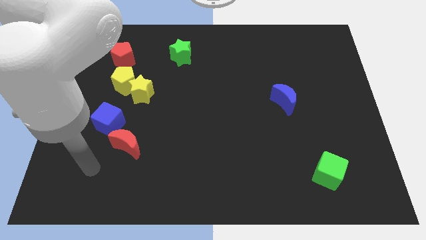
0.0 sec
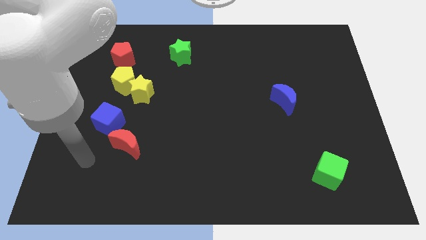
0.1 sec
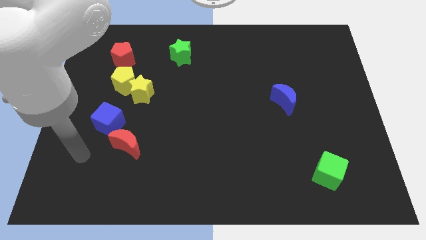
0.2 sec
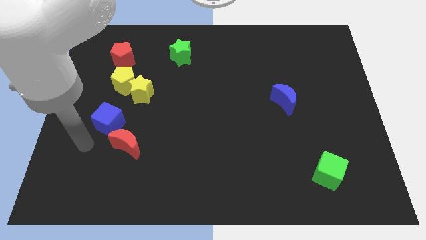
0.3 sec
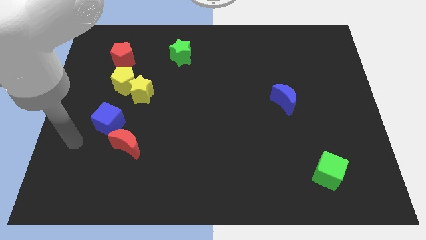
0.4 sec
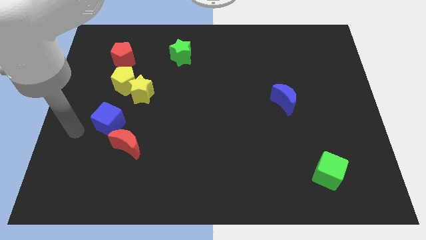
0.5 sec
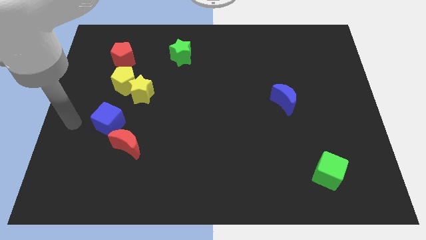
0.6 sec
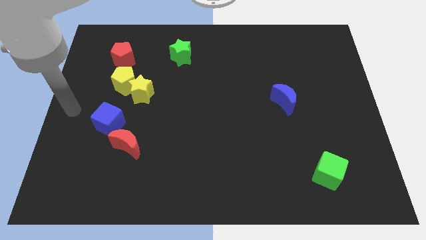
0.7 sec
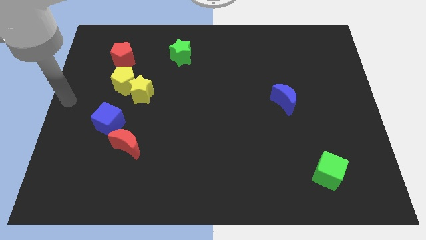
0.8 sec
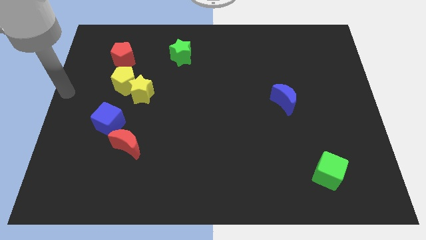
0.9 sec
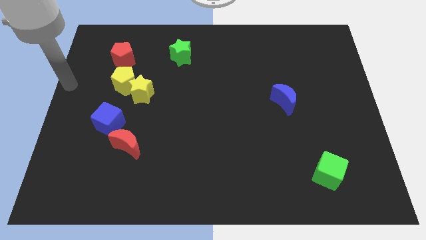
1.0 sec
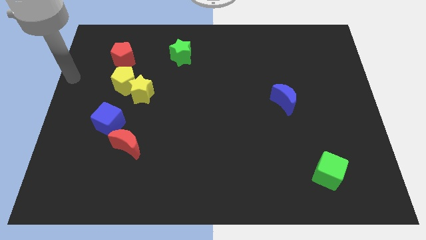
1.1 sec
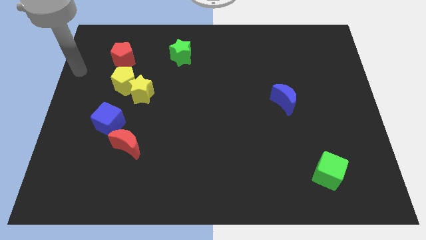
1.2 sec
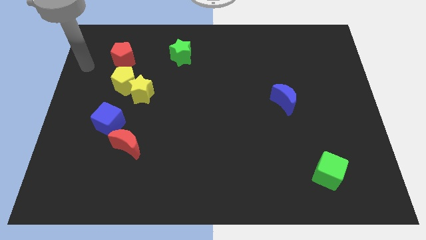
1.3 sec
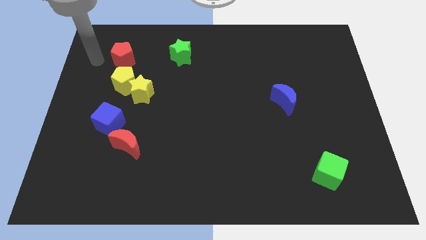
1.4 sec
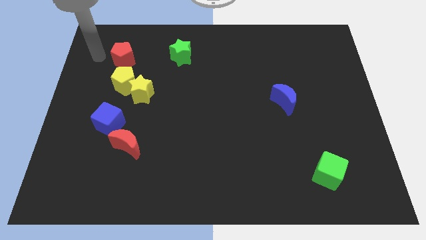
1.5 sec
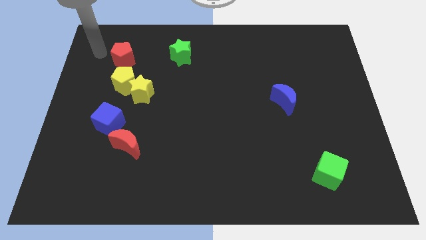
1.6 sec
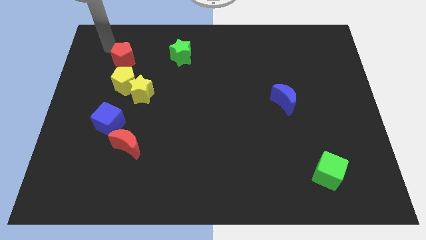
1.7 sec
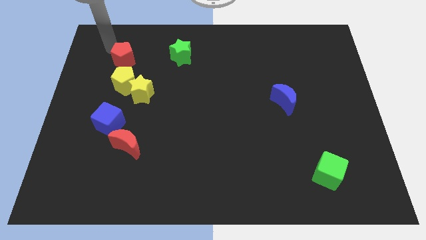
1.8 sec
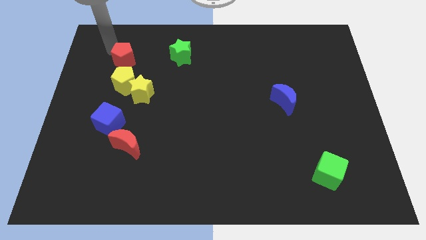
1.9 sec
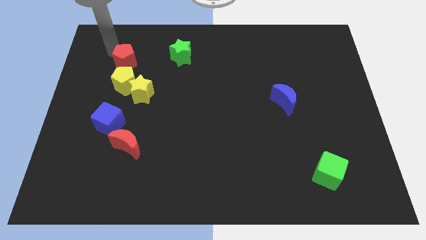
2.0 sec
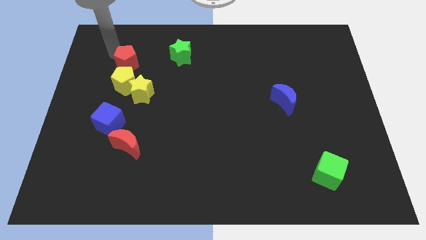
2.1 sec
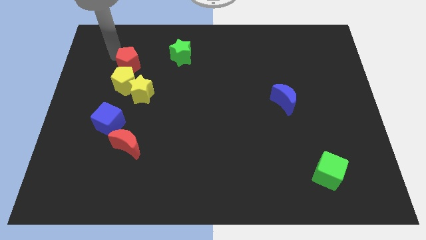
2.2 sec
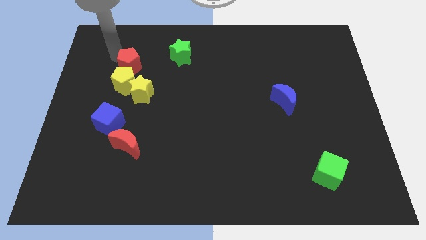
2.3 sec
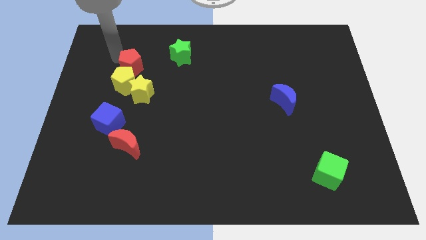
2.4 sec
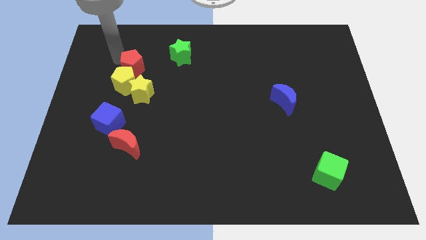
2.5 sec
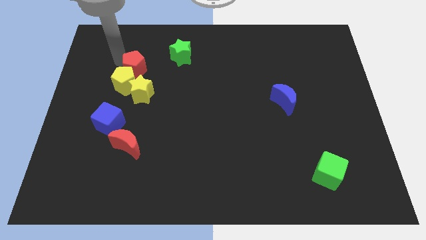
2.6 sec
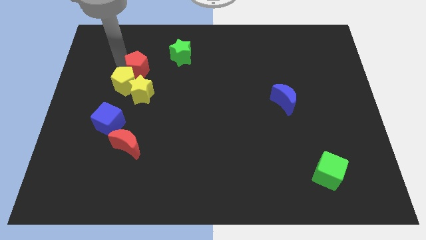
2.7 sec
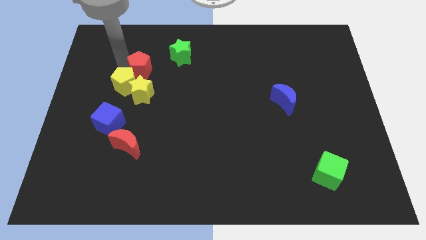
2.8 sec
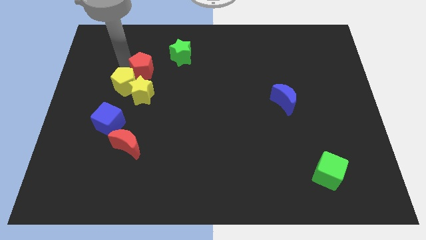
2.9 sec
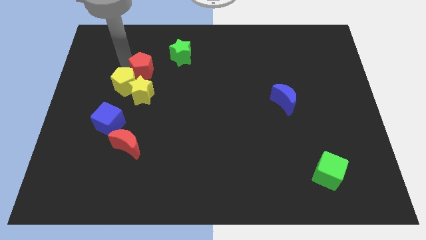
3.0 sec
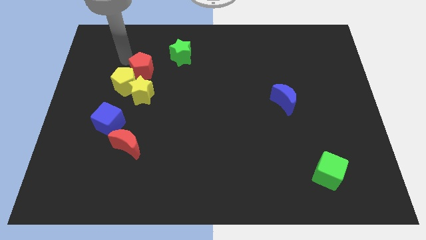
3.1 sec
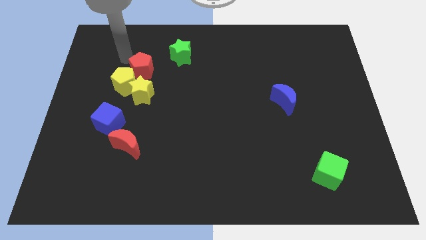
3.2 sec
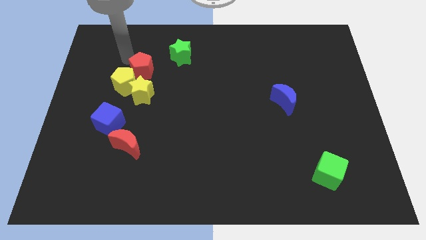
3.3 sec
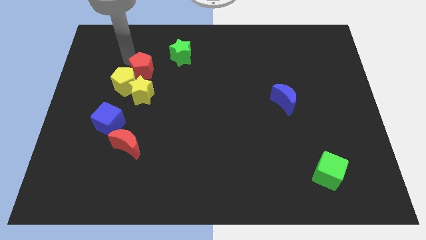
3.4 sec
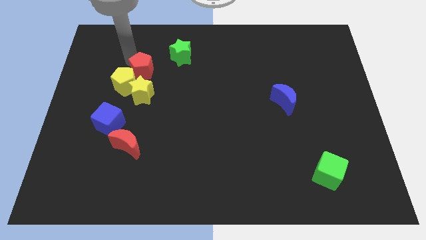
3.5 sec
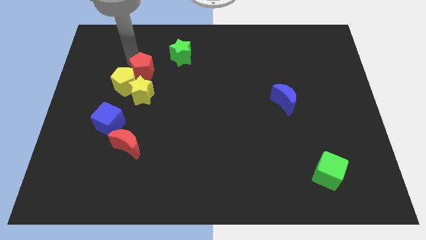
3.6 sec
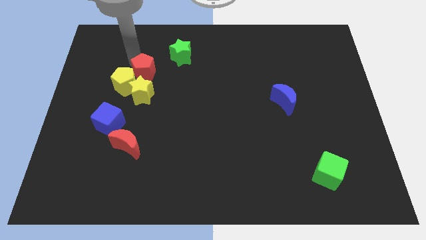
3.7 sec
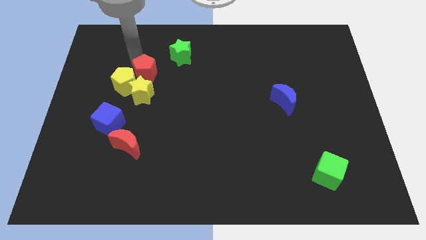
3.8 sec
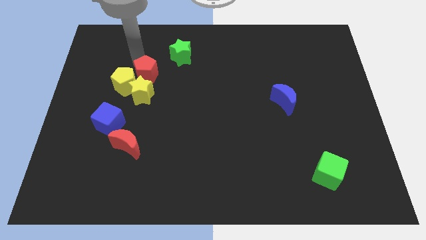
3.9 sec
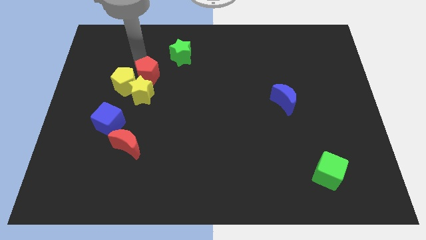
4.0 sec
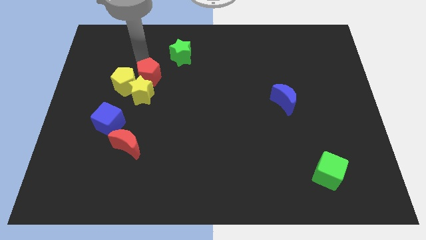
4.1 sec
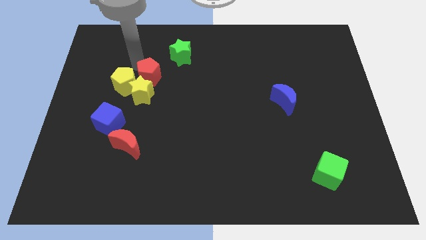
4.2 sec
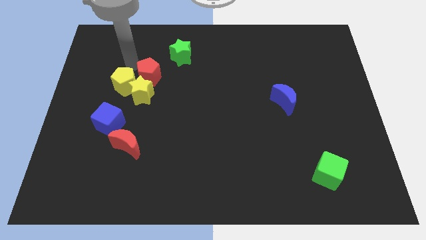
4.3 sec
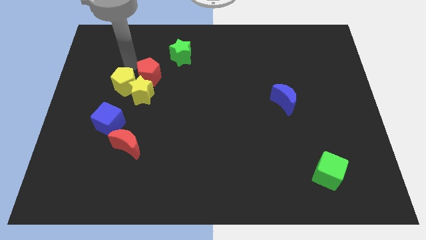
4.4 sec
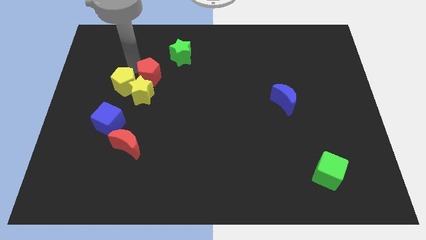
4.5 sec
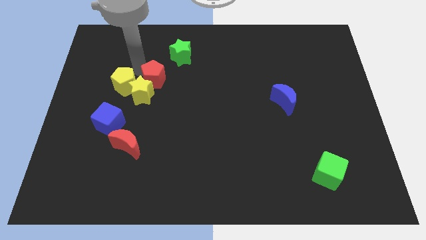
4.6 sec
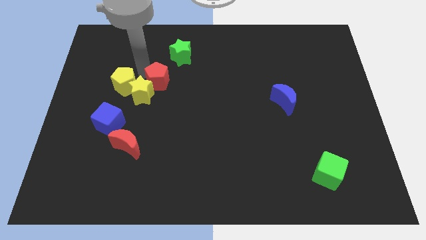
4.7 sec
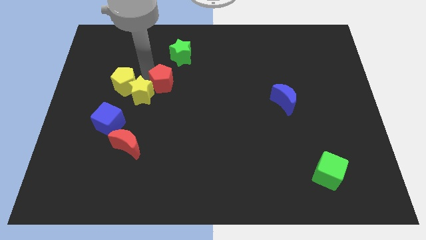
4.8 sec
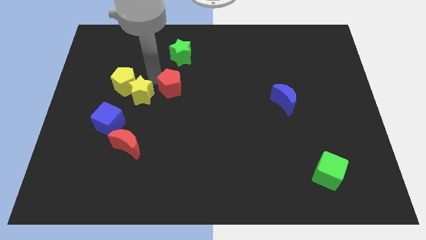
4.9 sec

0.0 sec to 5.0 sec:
slide the red pentagon to the middle of the board

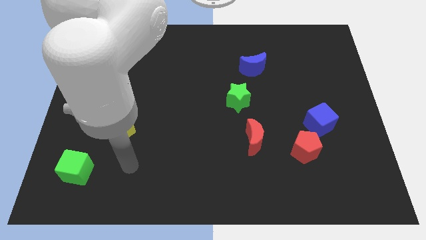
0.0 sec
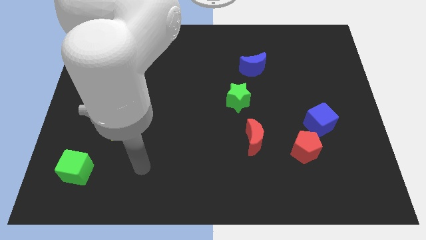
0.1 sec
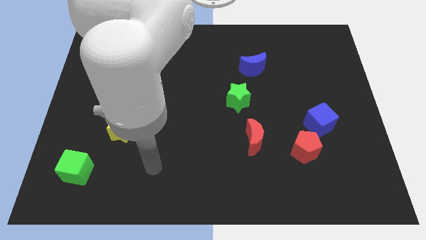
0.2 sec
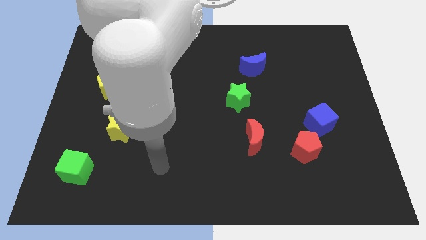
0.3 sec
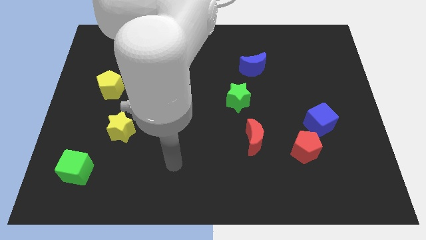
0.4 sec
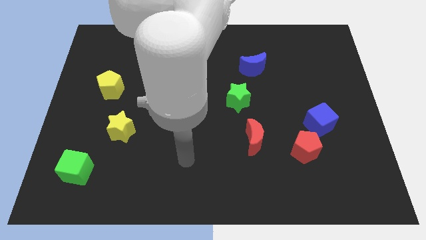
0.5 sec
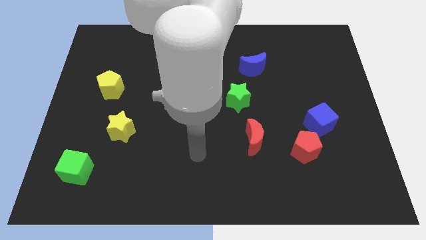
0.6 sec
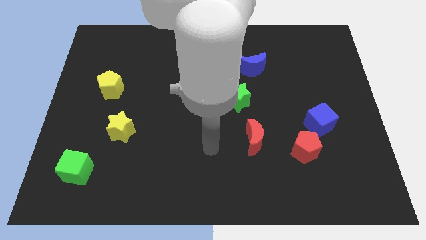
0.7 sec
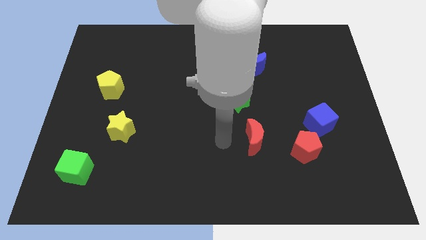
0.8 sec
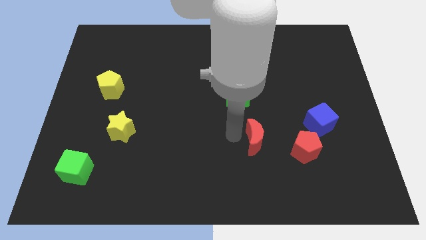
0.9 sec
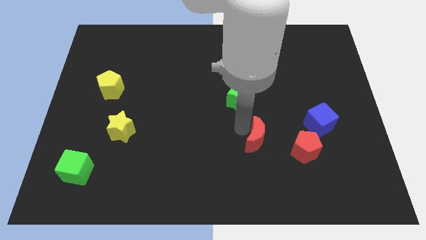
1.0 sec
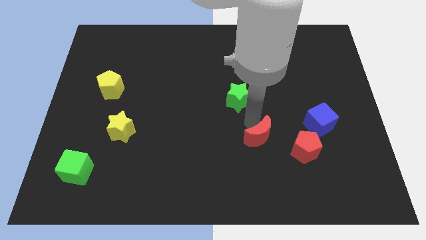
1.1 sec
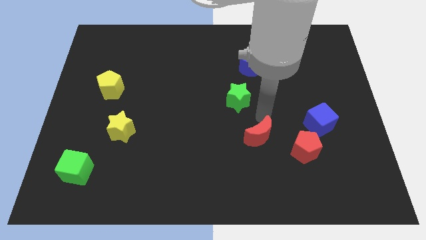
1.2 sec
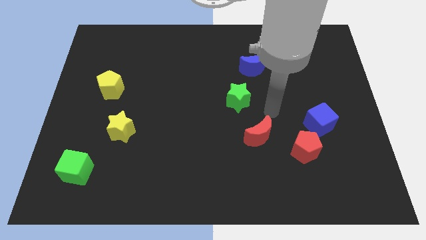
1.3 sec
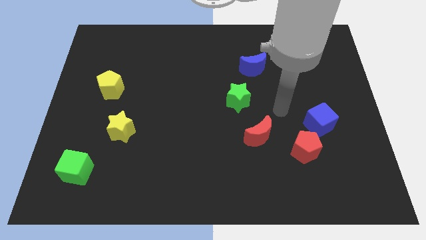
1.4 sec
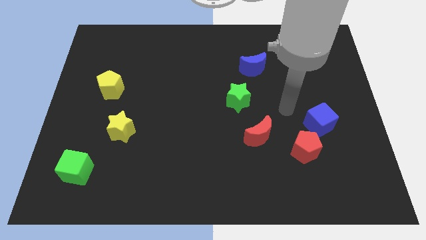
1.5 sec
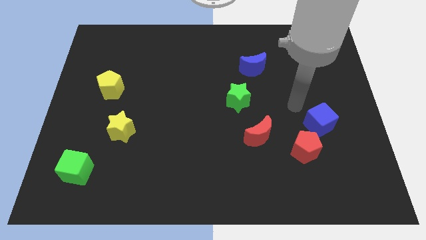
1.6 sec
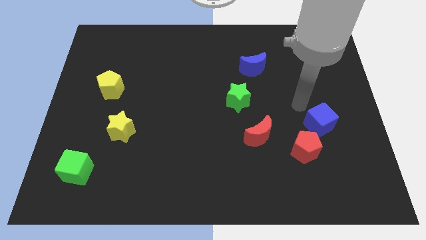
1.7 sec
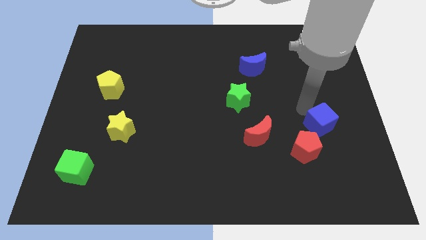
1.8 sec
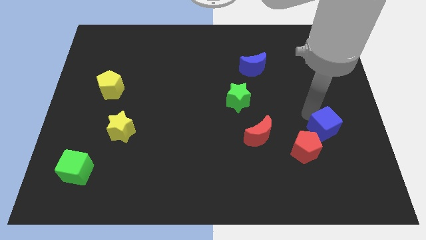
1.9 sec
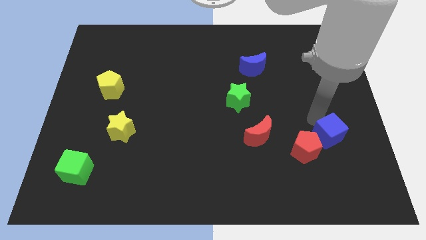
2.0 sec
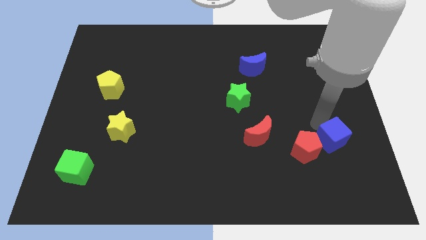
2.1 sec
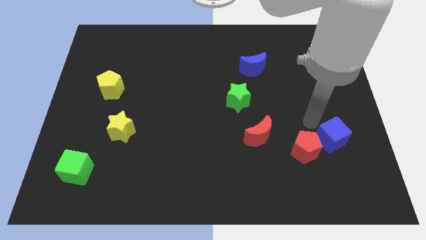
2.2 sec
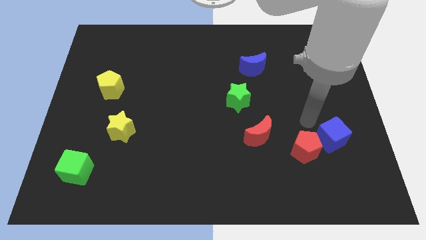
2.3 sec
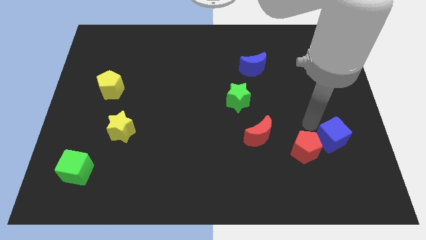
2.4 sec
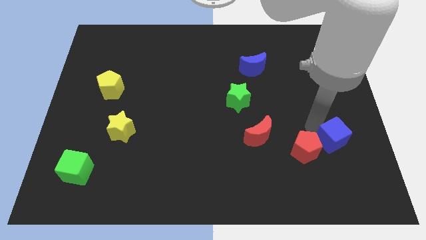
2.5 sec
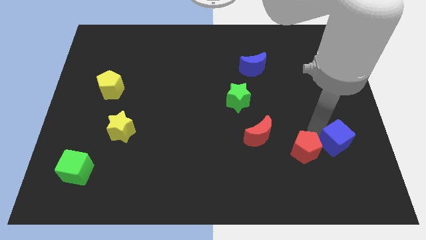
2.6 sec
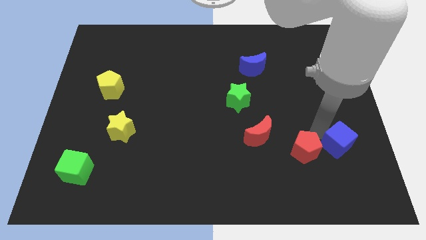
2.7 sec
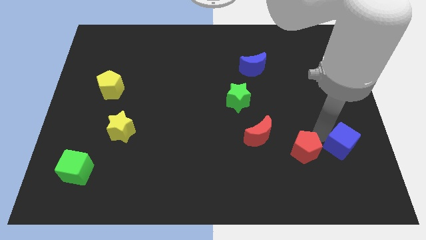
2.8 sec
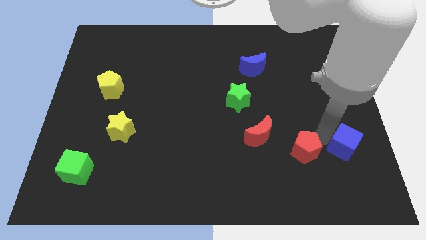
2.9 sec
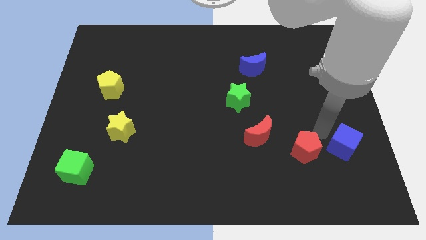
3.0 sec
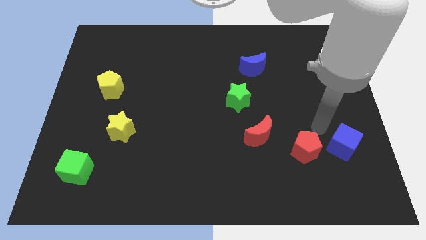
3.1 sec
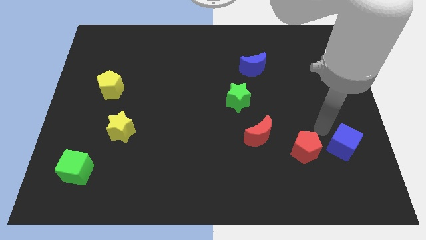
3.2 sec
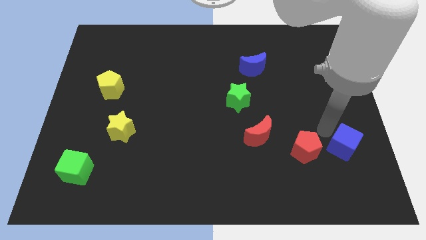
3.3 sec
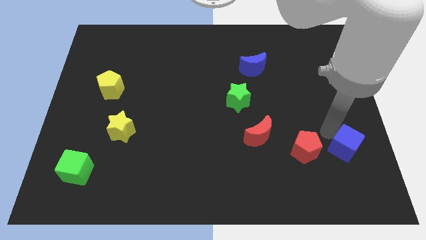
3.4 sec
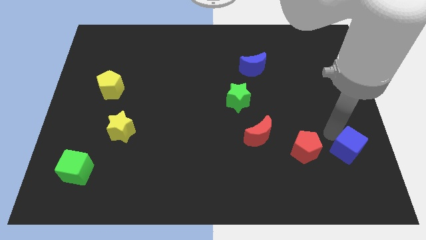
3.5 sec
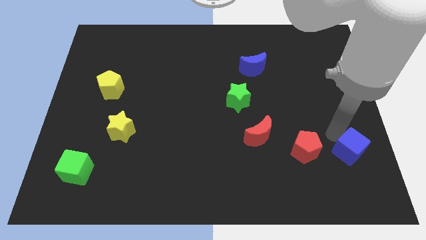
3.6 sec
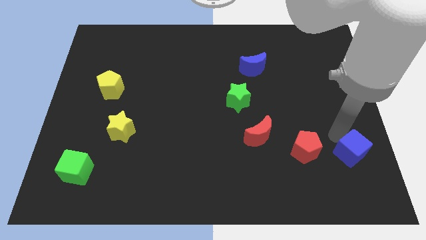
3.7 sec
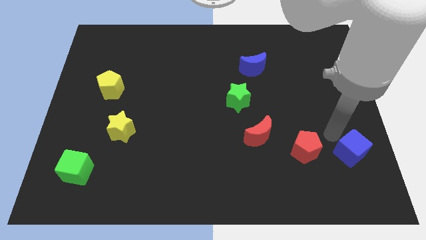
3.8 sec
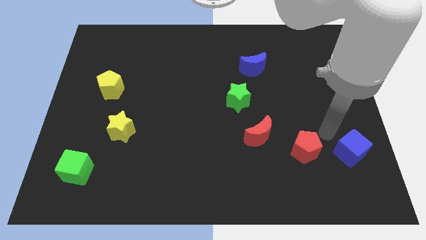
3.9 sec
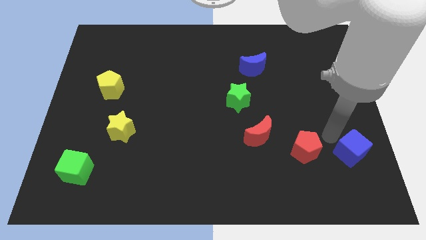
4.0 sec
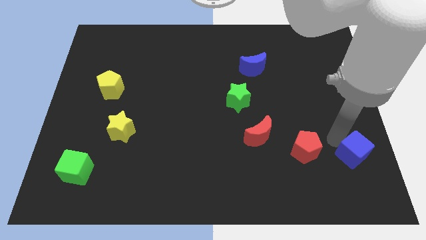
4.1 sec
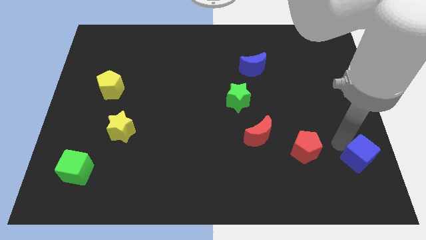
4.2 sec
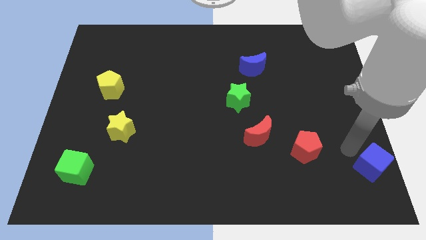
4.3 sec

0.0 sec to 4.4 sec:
slide the blue cube to the bottom right
